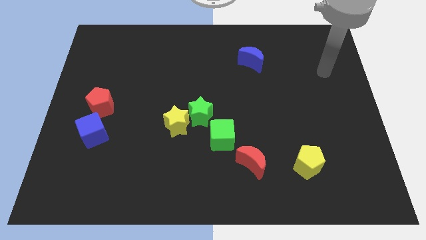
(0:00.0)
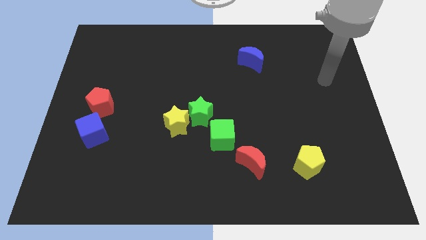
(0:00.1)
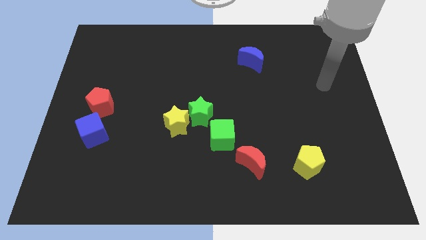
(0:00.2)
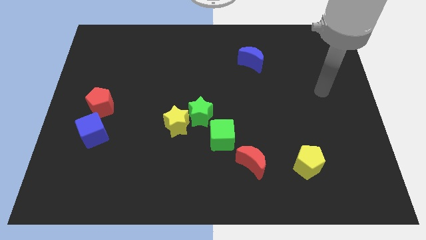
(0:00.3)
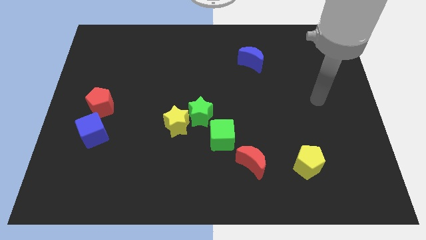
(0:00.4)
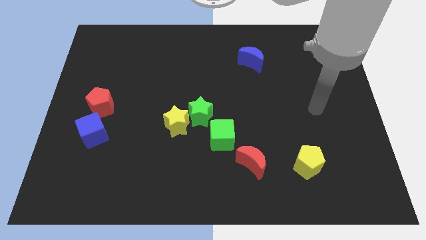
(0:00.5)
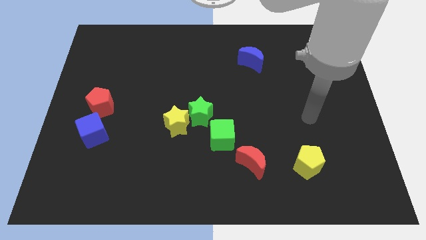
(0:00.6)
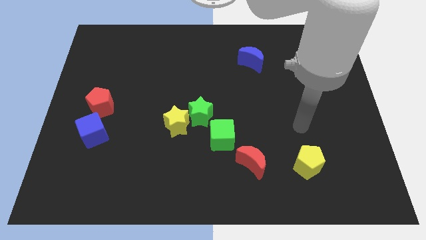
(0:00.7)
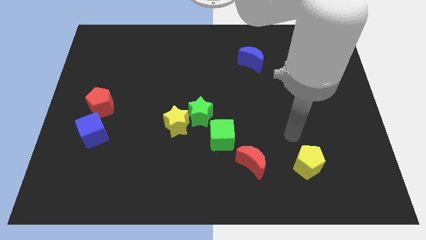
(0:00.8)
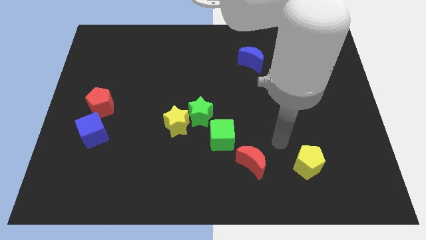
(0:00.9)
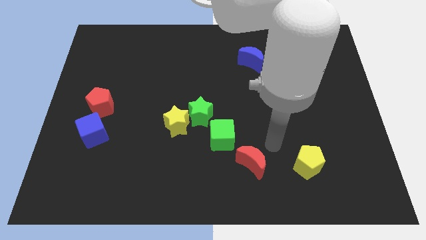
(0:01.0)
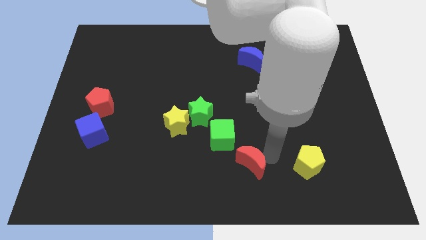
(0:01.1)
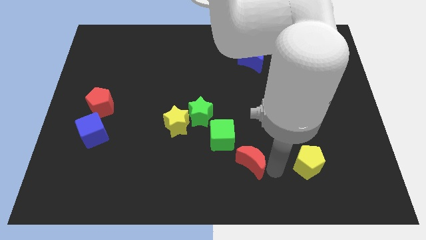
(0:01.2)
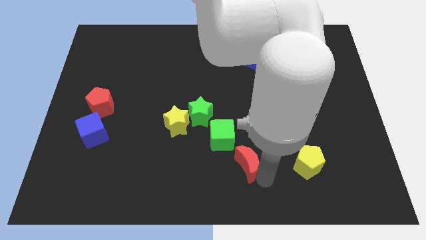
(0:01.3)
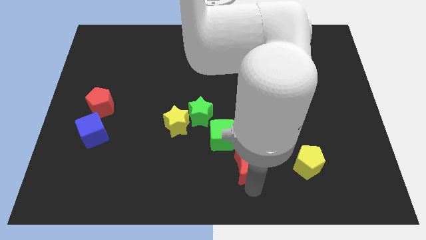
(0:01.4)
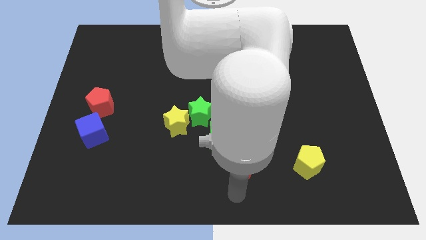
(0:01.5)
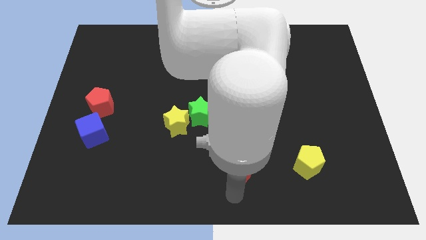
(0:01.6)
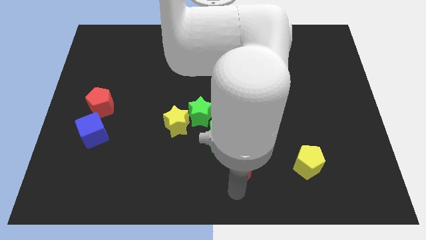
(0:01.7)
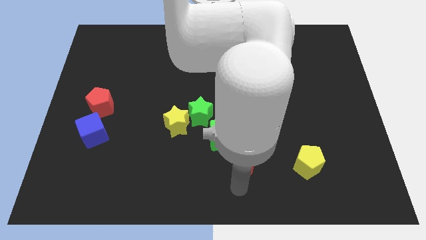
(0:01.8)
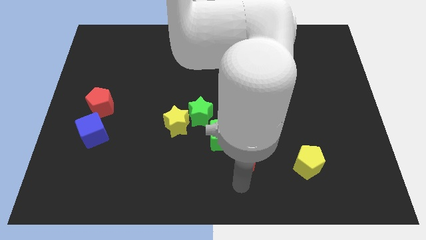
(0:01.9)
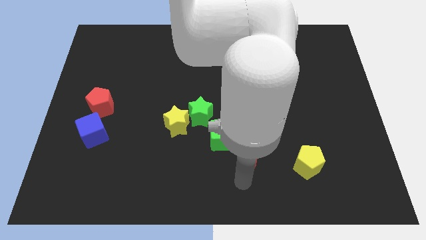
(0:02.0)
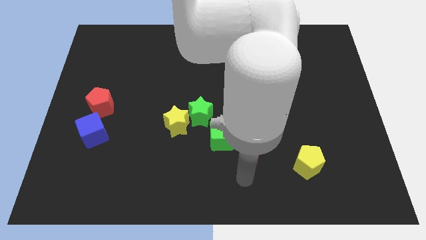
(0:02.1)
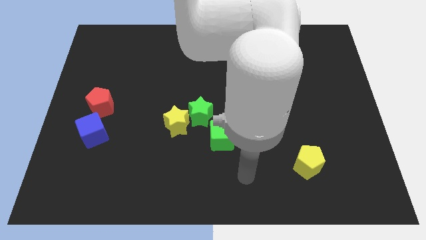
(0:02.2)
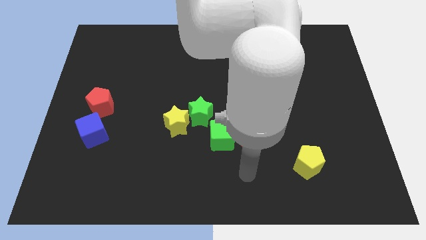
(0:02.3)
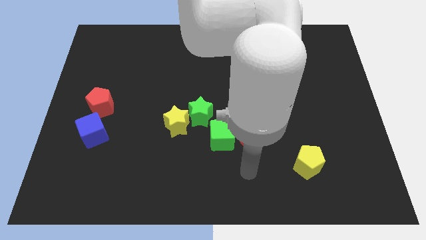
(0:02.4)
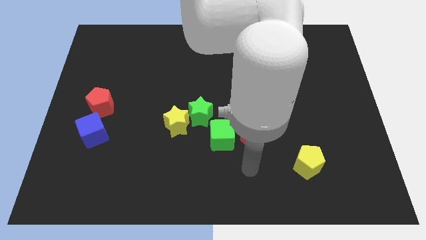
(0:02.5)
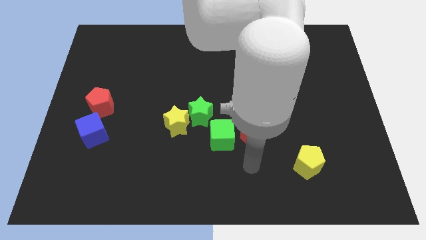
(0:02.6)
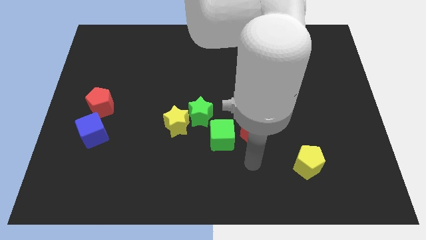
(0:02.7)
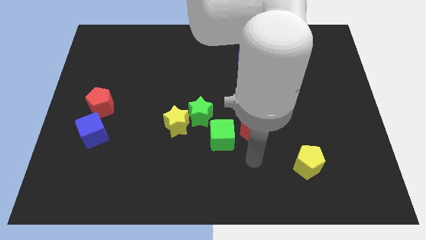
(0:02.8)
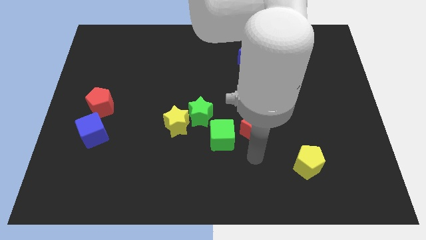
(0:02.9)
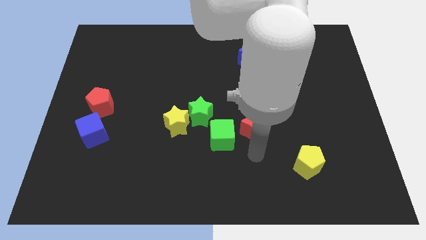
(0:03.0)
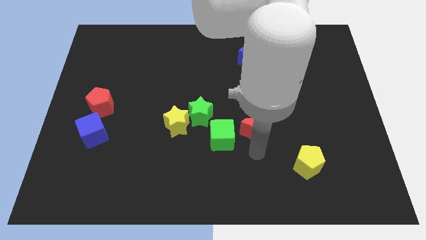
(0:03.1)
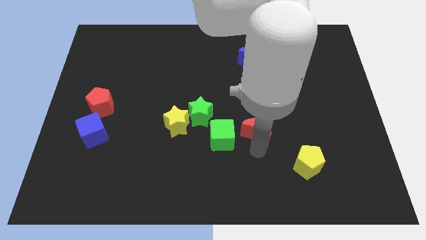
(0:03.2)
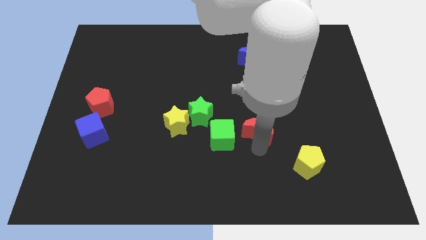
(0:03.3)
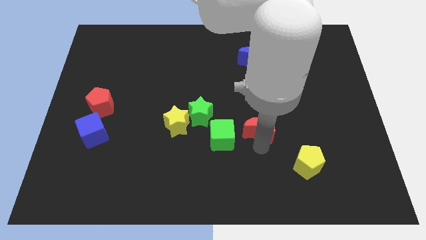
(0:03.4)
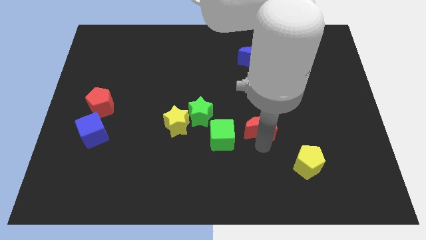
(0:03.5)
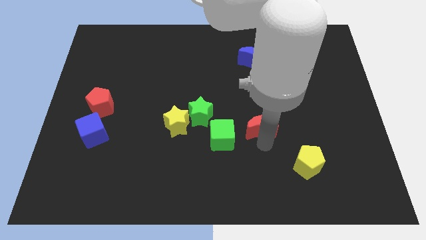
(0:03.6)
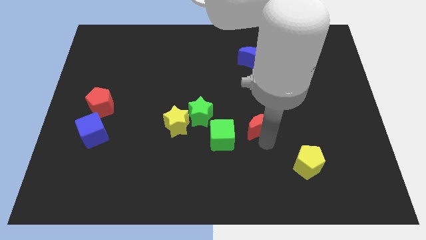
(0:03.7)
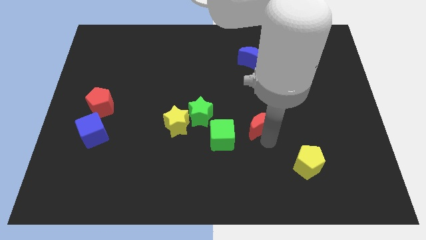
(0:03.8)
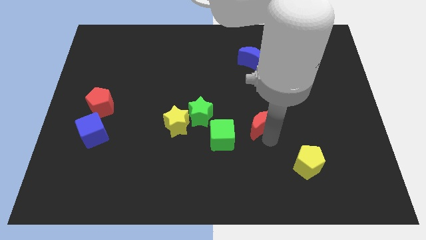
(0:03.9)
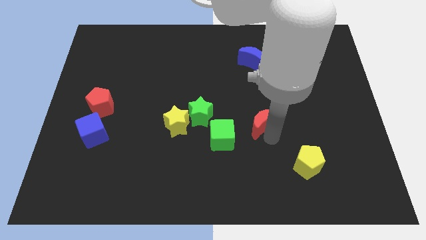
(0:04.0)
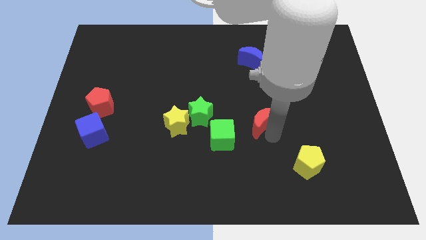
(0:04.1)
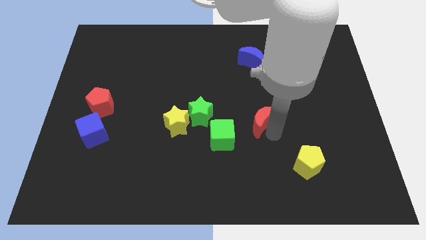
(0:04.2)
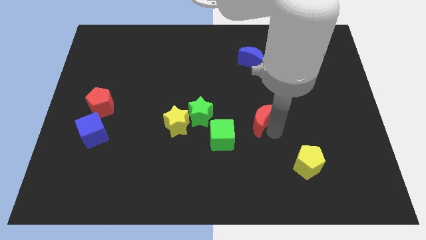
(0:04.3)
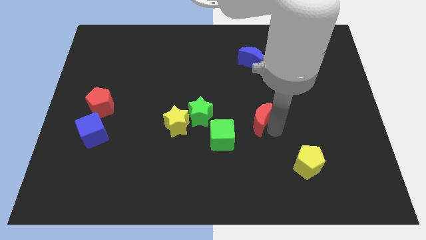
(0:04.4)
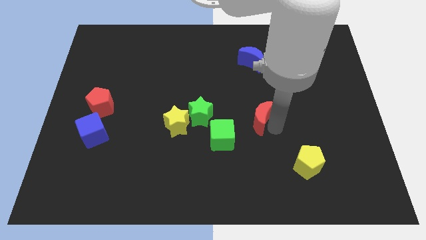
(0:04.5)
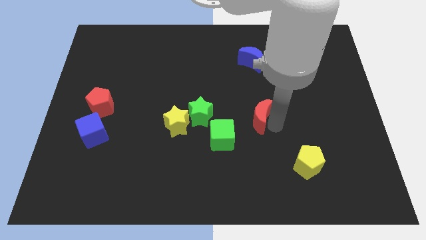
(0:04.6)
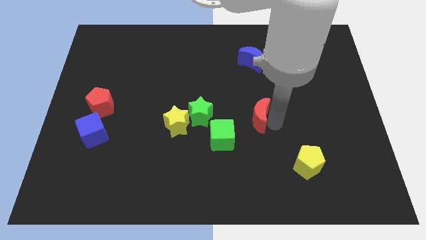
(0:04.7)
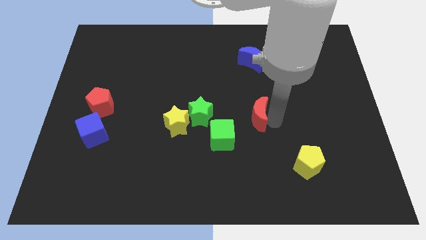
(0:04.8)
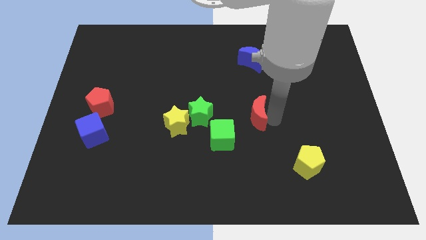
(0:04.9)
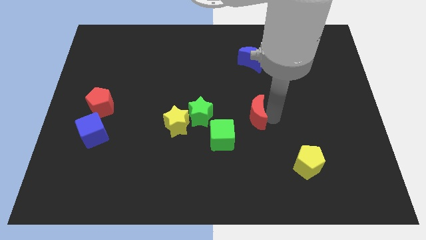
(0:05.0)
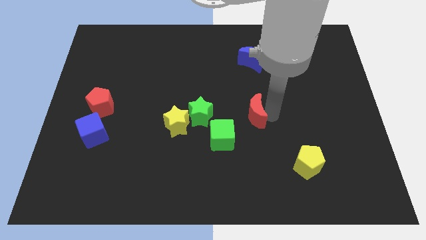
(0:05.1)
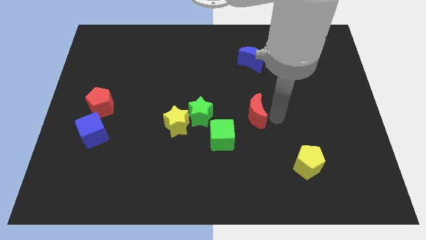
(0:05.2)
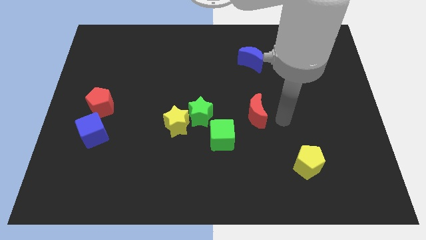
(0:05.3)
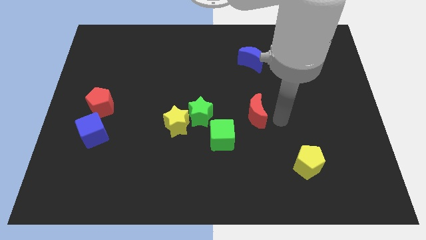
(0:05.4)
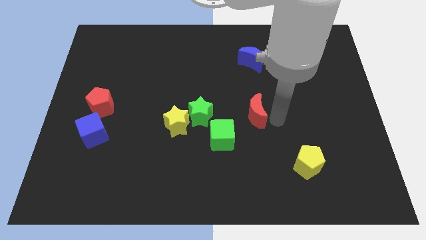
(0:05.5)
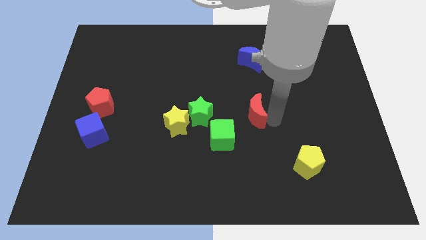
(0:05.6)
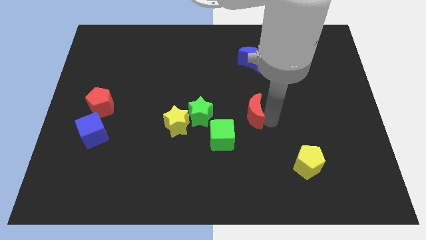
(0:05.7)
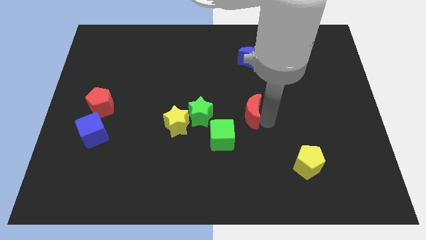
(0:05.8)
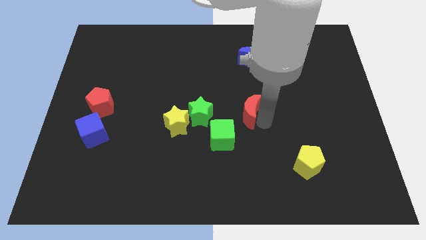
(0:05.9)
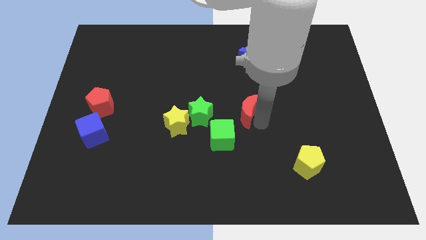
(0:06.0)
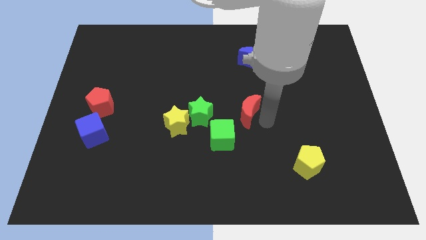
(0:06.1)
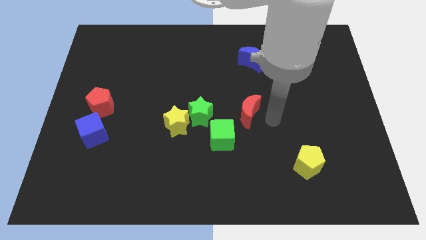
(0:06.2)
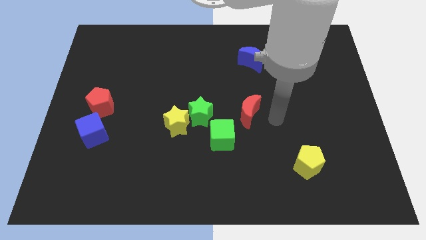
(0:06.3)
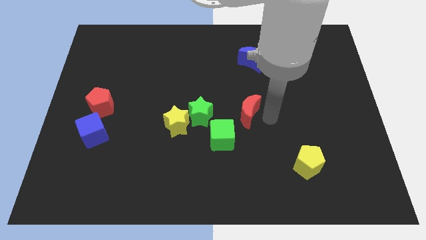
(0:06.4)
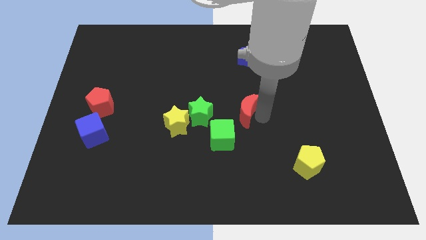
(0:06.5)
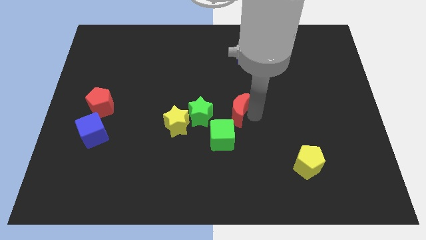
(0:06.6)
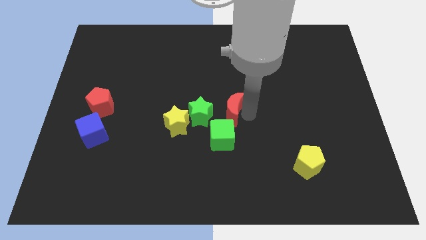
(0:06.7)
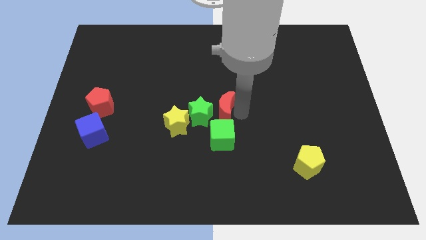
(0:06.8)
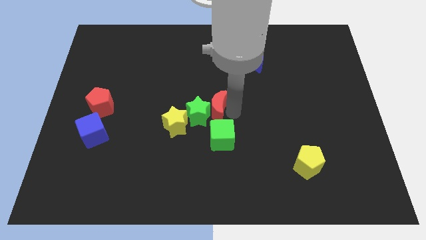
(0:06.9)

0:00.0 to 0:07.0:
move the red moon diagonally up and to the right of the yellow star
